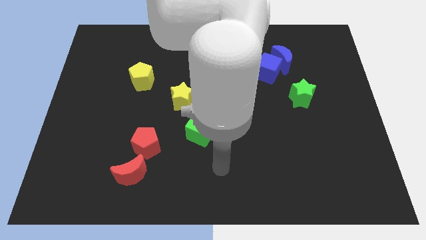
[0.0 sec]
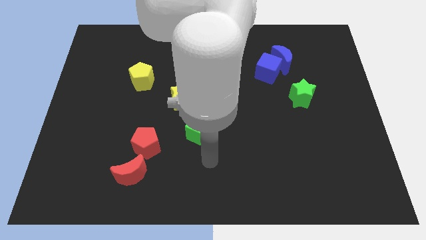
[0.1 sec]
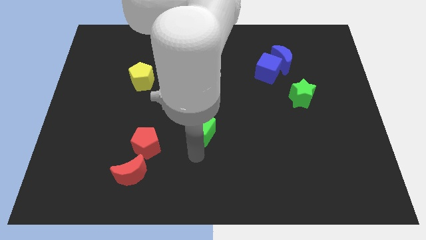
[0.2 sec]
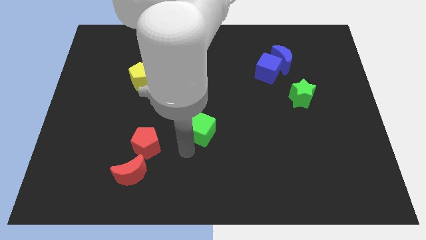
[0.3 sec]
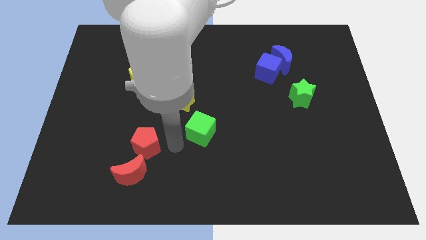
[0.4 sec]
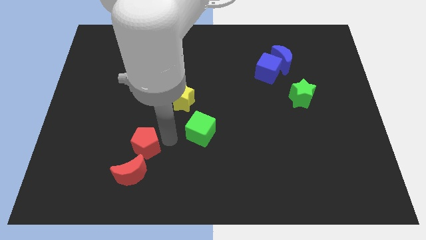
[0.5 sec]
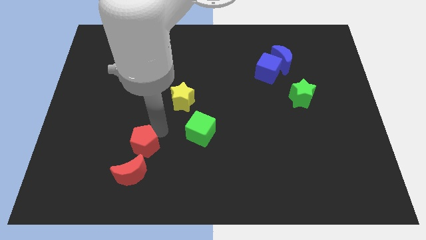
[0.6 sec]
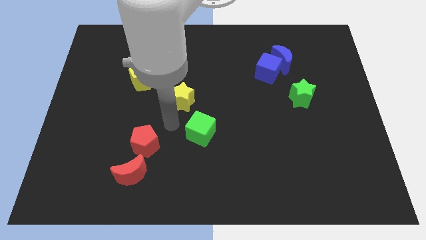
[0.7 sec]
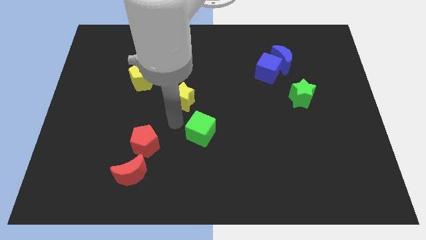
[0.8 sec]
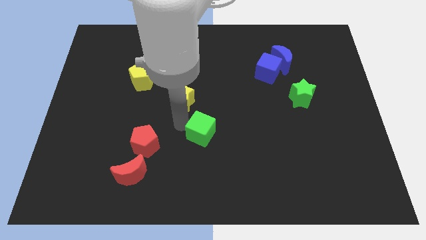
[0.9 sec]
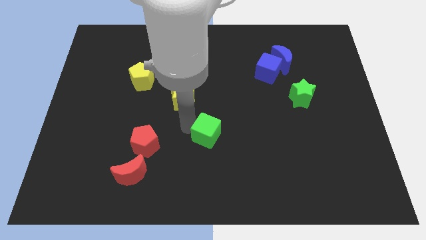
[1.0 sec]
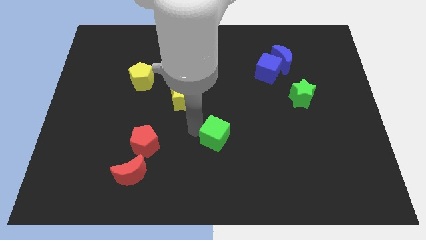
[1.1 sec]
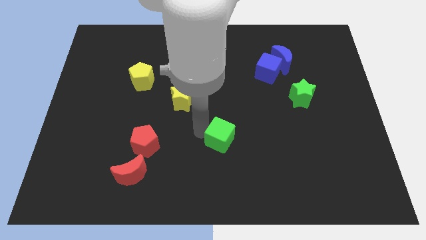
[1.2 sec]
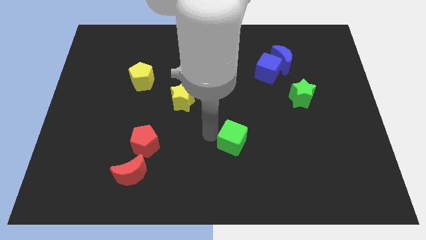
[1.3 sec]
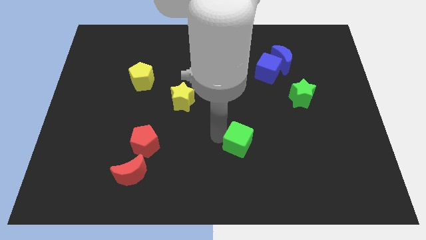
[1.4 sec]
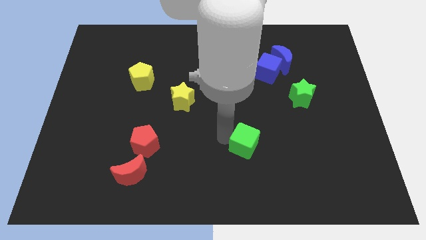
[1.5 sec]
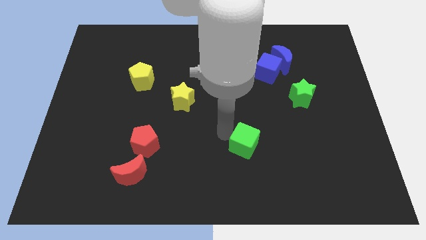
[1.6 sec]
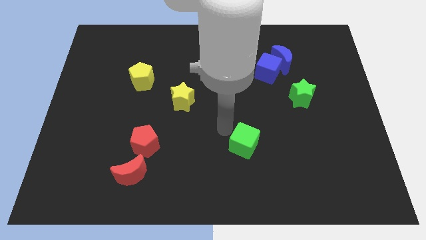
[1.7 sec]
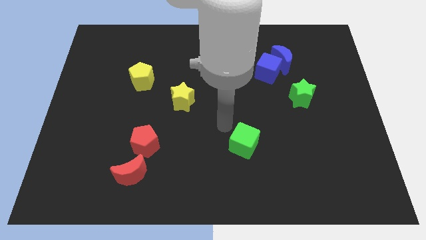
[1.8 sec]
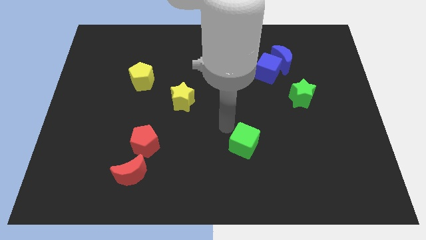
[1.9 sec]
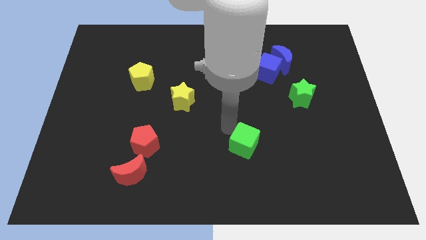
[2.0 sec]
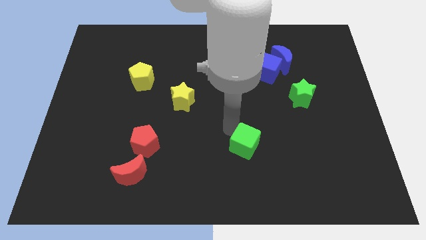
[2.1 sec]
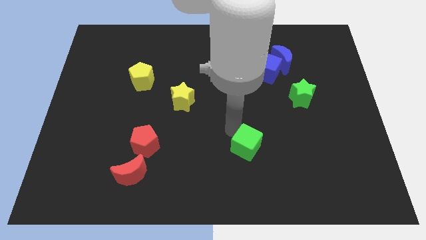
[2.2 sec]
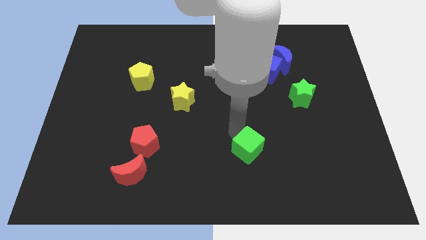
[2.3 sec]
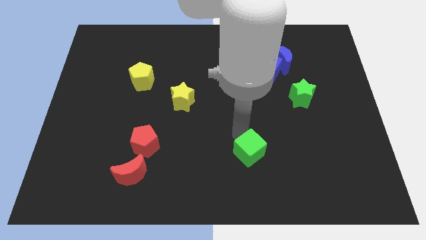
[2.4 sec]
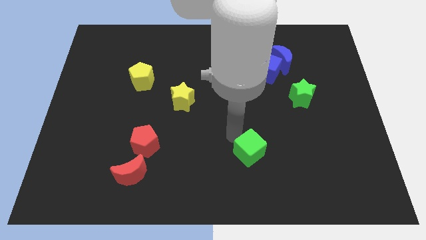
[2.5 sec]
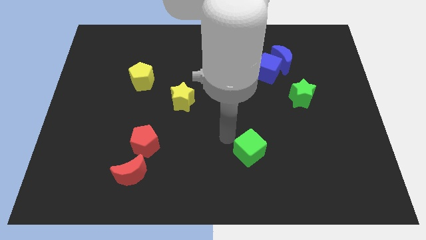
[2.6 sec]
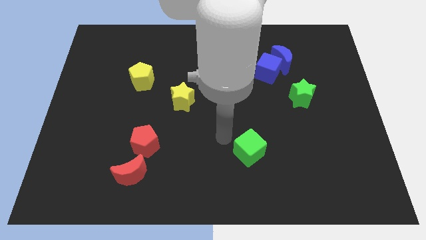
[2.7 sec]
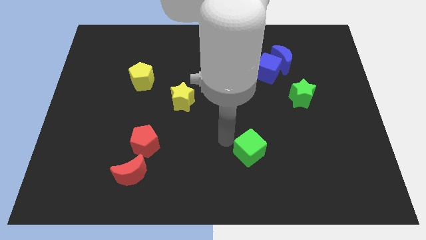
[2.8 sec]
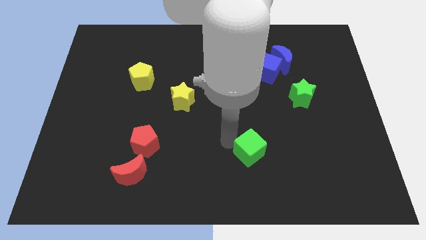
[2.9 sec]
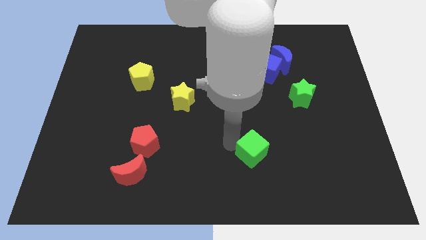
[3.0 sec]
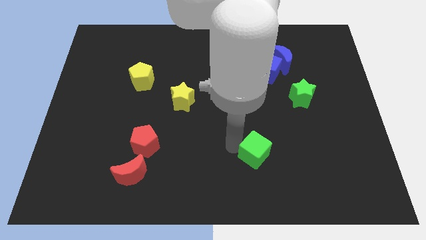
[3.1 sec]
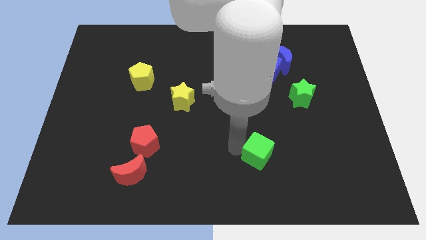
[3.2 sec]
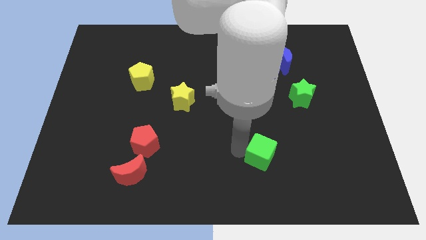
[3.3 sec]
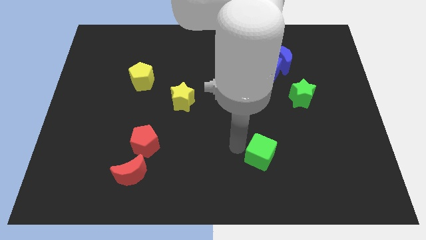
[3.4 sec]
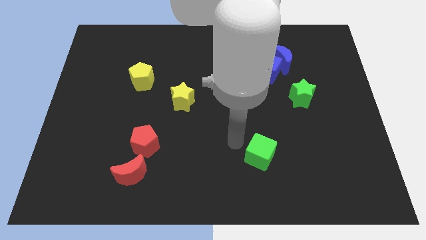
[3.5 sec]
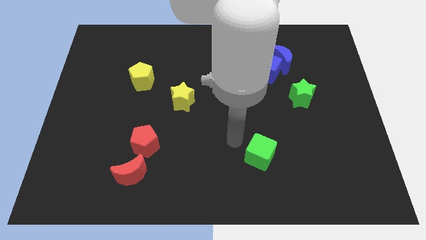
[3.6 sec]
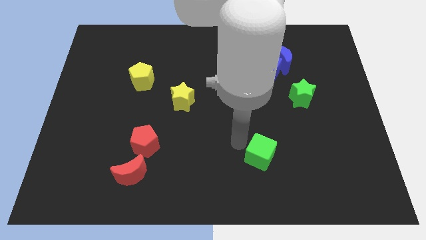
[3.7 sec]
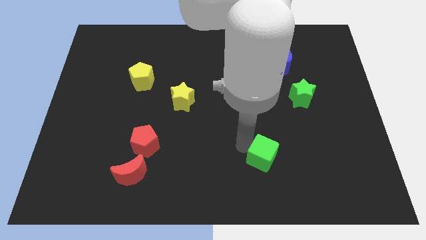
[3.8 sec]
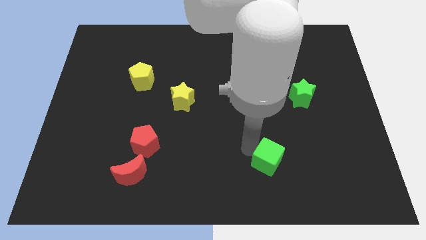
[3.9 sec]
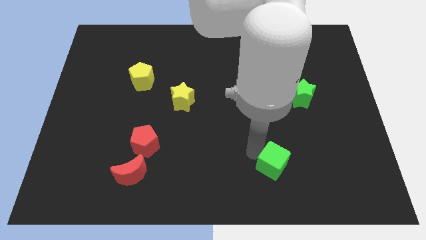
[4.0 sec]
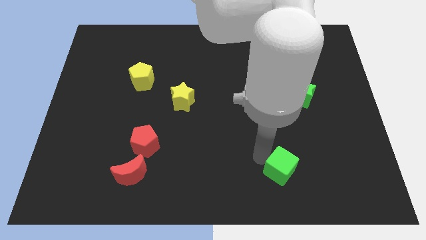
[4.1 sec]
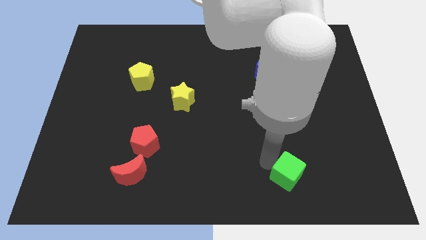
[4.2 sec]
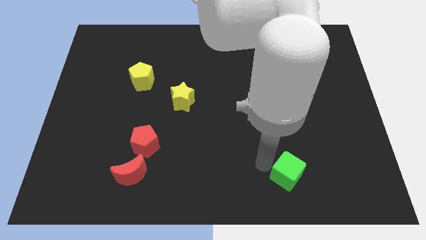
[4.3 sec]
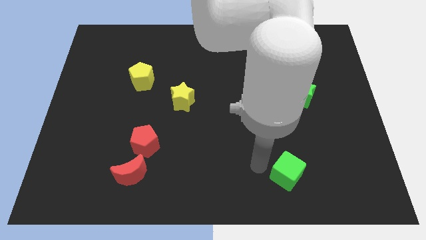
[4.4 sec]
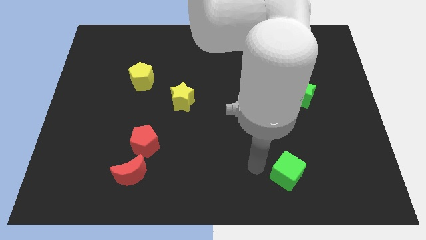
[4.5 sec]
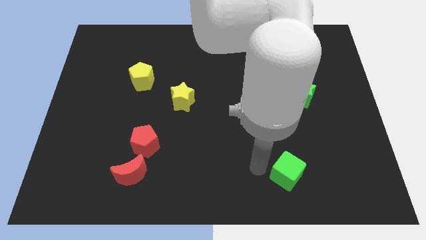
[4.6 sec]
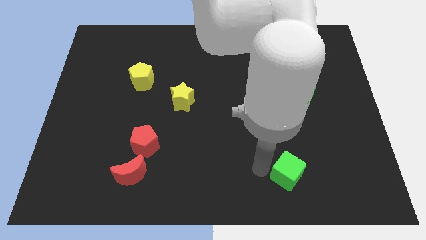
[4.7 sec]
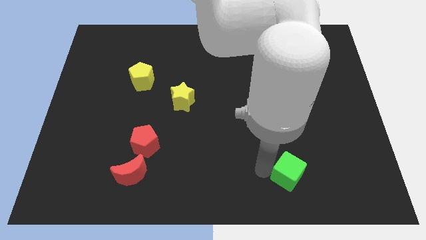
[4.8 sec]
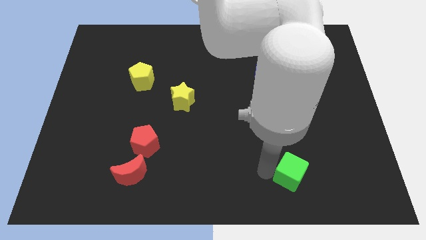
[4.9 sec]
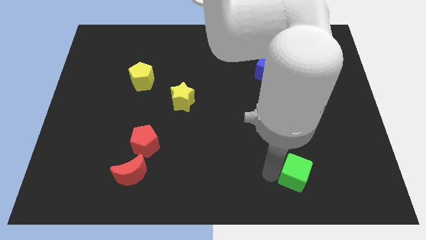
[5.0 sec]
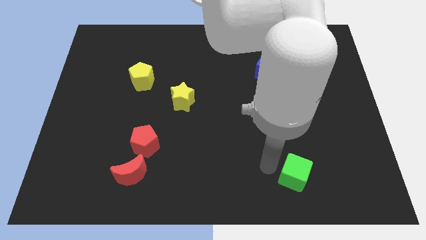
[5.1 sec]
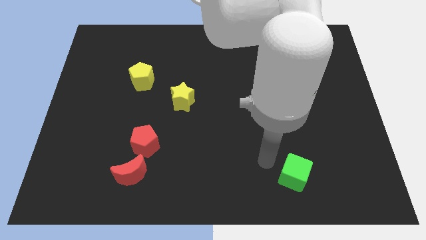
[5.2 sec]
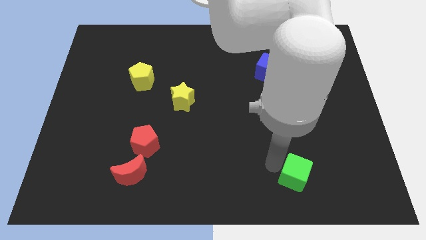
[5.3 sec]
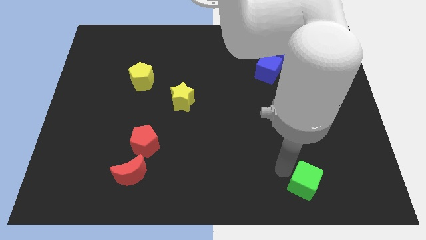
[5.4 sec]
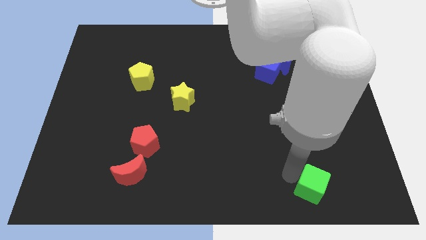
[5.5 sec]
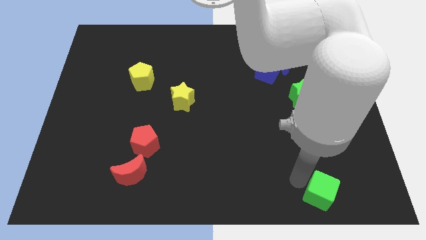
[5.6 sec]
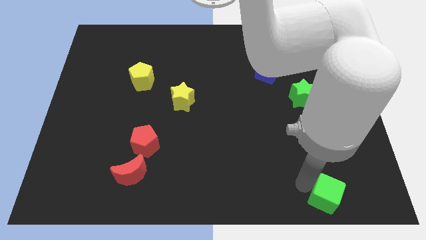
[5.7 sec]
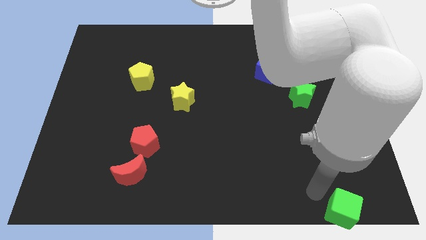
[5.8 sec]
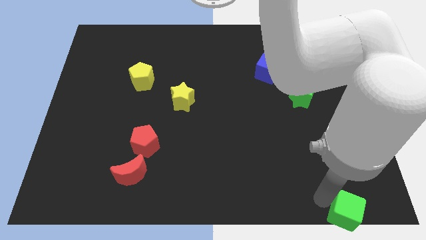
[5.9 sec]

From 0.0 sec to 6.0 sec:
move the green cube to the bottom right
